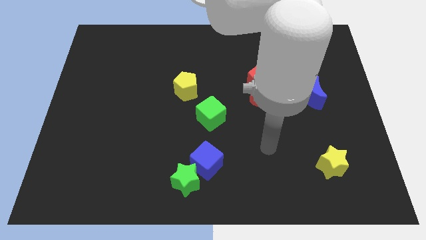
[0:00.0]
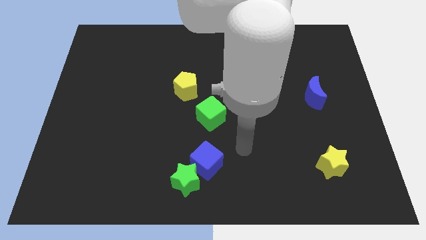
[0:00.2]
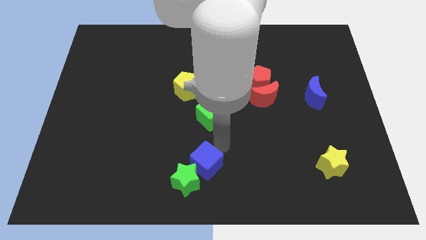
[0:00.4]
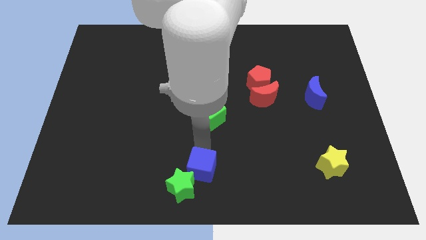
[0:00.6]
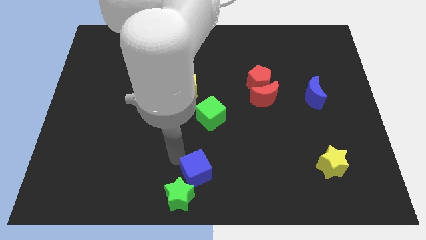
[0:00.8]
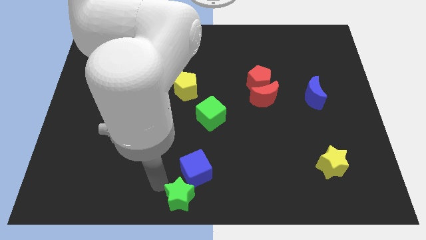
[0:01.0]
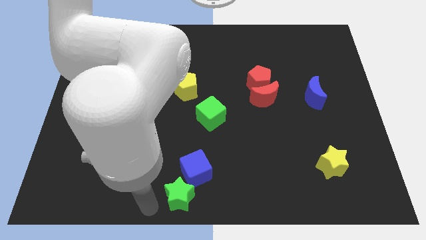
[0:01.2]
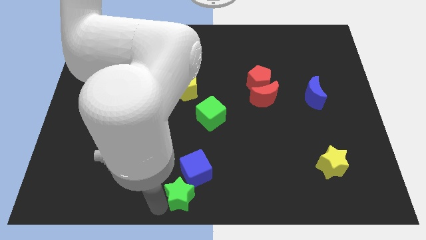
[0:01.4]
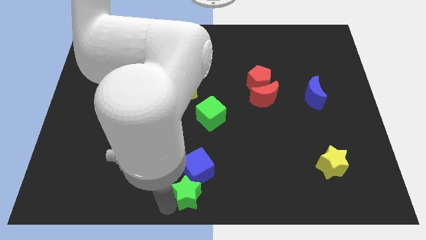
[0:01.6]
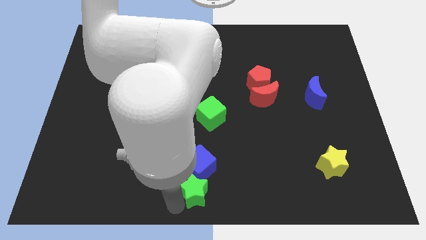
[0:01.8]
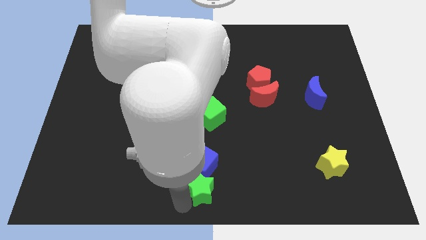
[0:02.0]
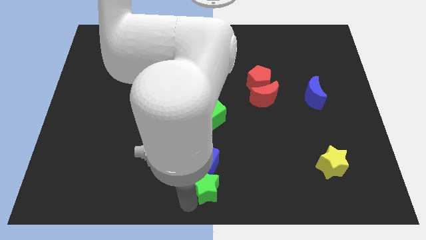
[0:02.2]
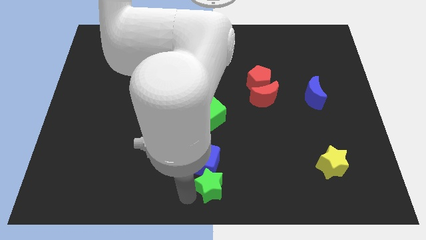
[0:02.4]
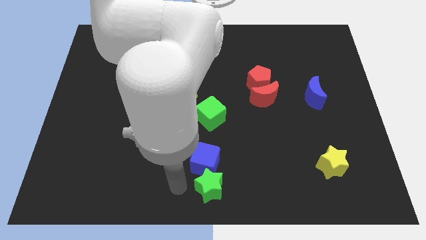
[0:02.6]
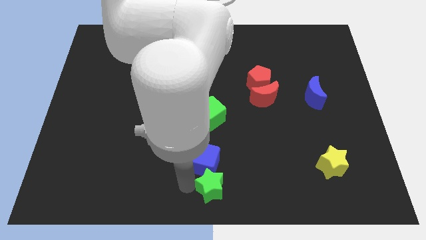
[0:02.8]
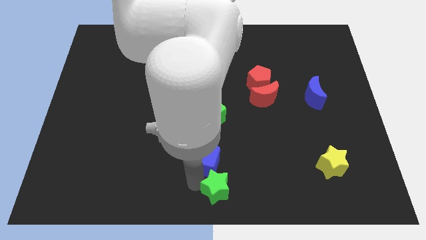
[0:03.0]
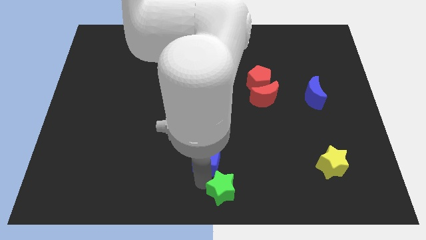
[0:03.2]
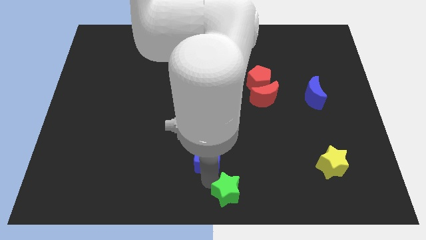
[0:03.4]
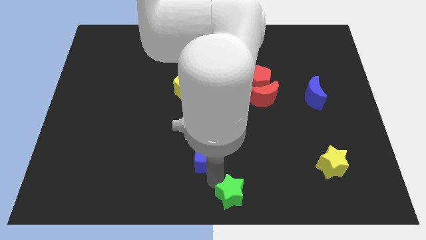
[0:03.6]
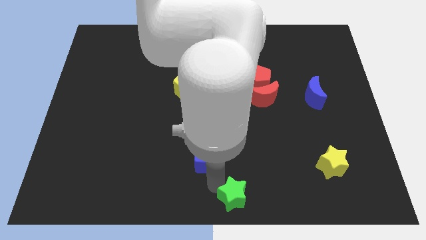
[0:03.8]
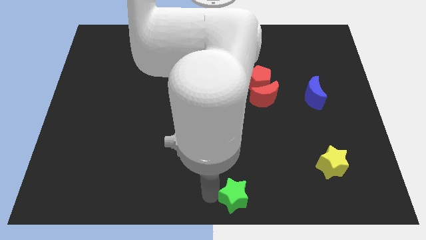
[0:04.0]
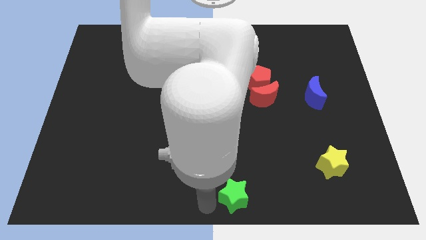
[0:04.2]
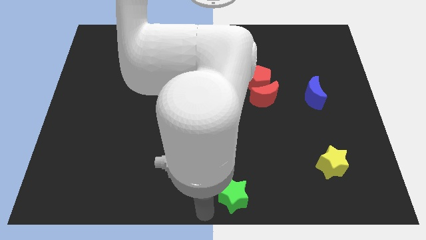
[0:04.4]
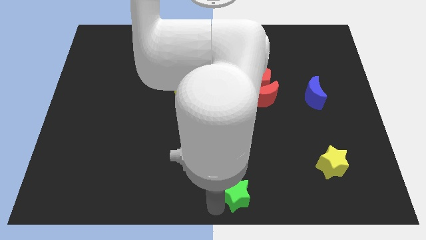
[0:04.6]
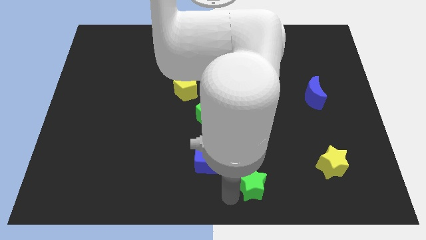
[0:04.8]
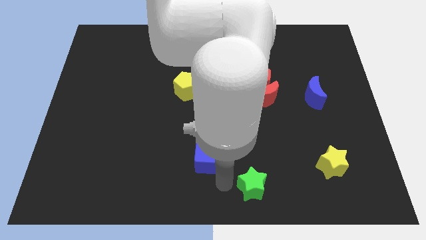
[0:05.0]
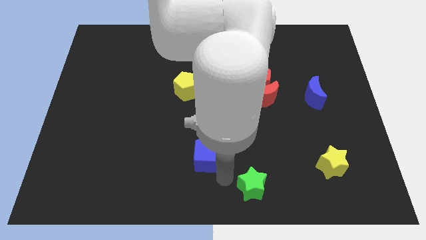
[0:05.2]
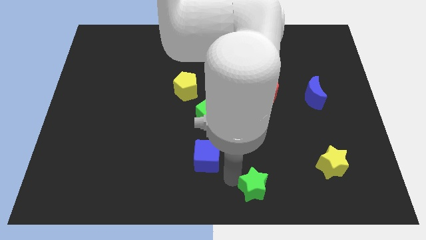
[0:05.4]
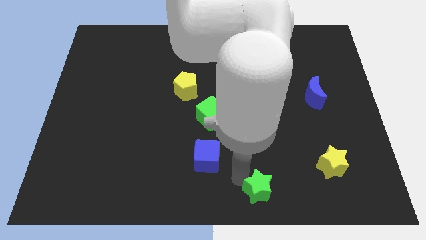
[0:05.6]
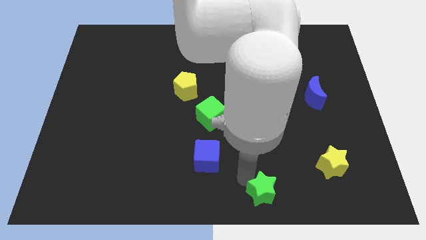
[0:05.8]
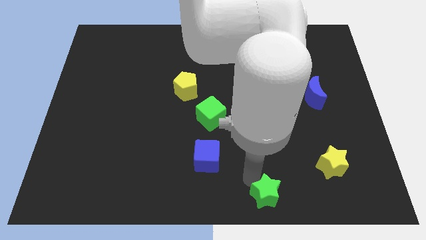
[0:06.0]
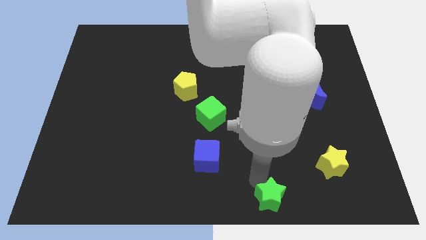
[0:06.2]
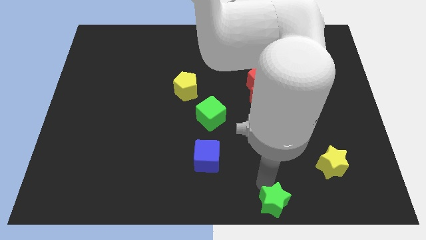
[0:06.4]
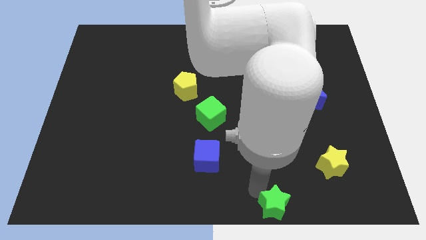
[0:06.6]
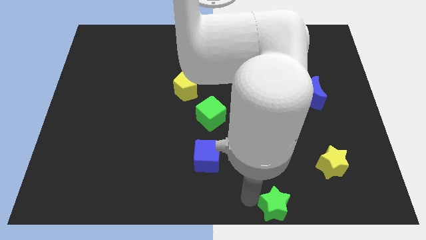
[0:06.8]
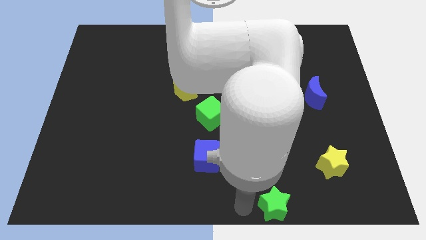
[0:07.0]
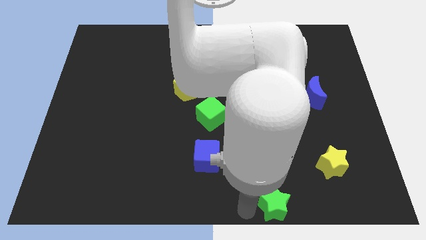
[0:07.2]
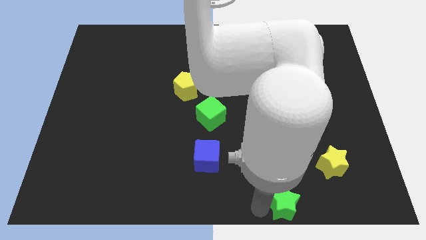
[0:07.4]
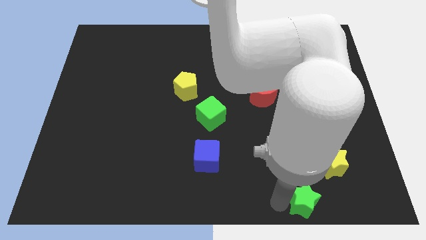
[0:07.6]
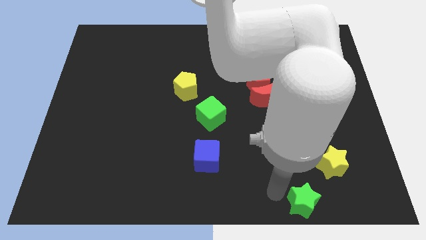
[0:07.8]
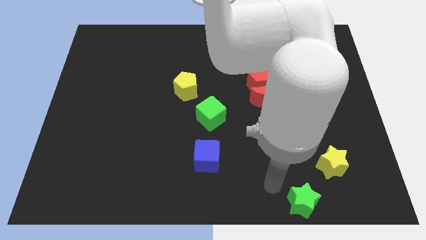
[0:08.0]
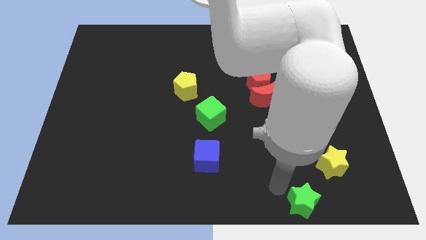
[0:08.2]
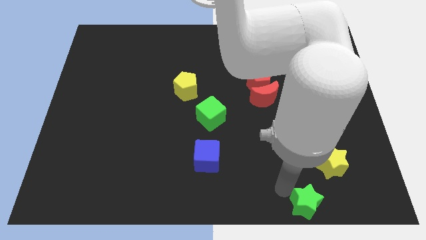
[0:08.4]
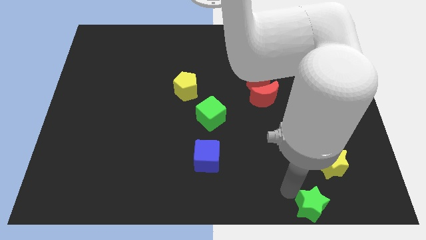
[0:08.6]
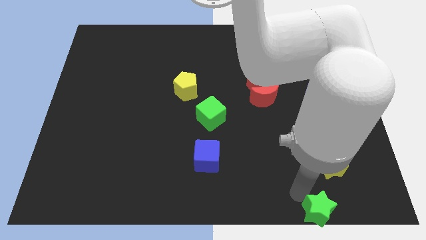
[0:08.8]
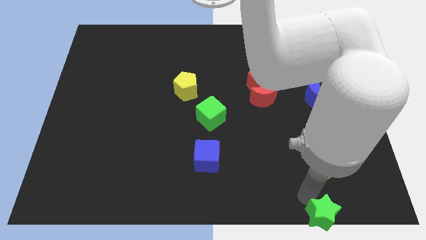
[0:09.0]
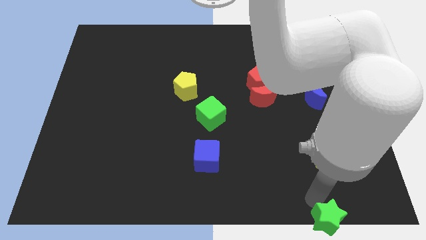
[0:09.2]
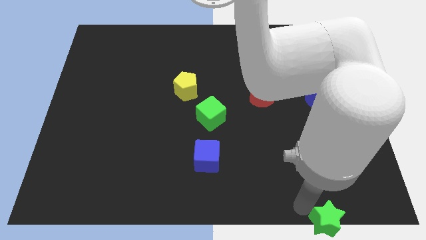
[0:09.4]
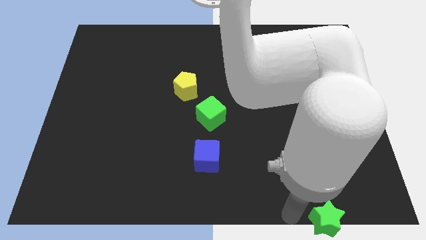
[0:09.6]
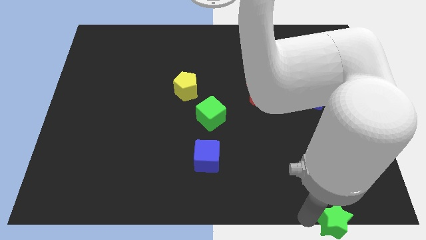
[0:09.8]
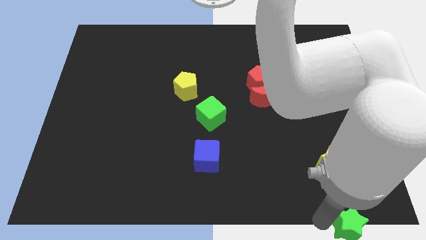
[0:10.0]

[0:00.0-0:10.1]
slide the green star to the lower right corner

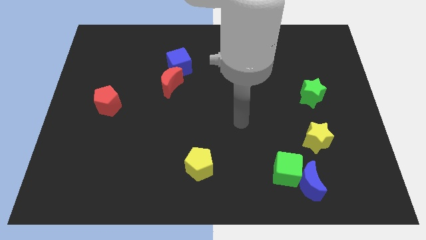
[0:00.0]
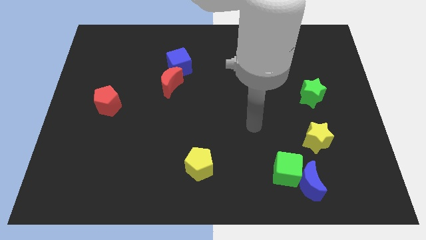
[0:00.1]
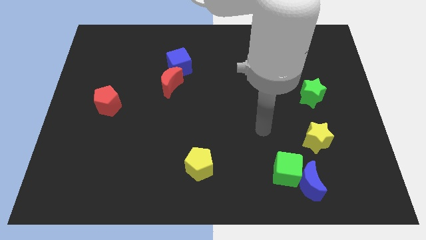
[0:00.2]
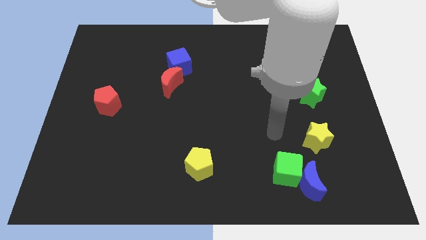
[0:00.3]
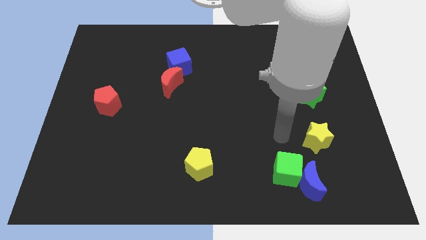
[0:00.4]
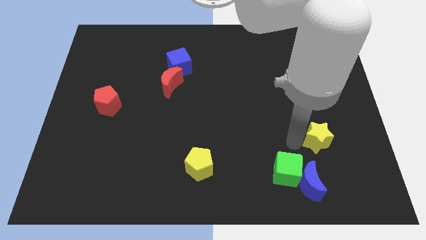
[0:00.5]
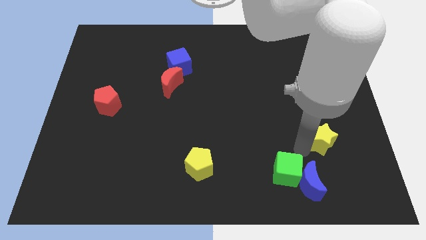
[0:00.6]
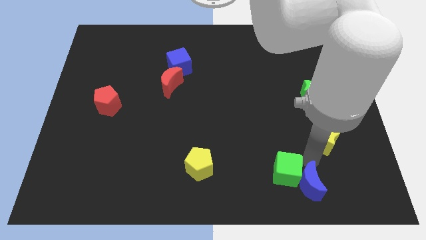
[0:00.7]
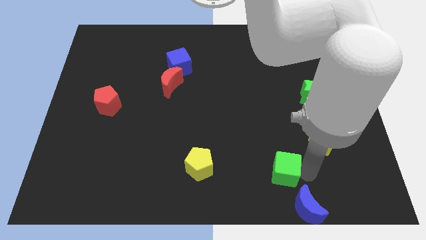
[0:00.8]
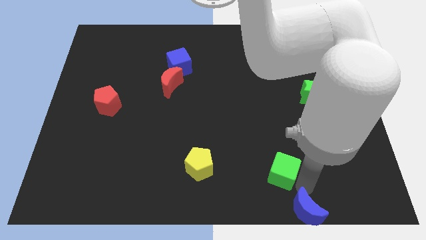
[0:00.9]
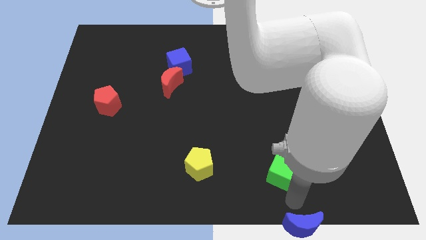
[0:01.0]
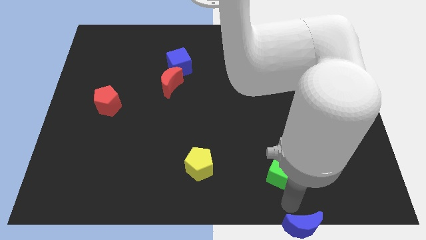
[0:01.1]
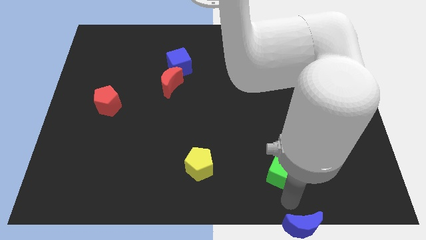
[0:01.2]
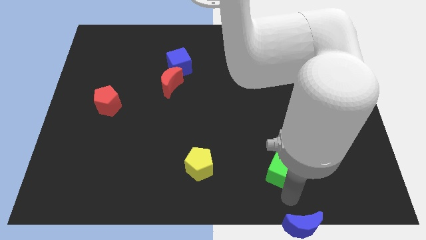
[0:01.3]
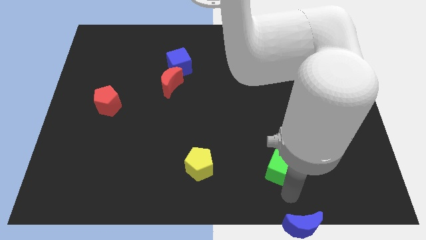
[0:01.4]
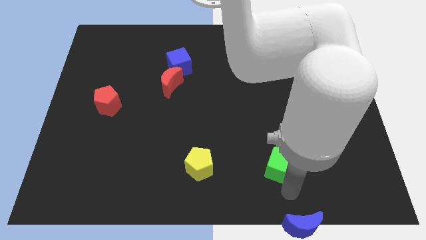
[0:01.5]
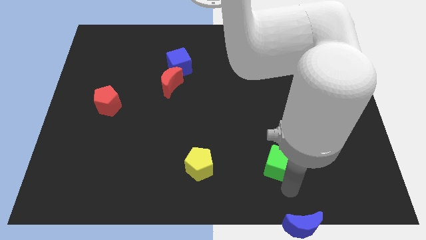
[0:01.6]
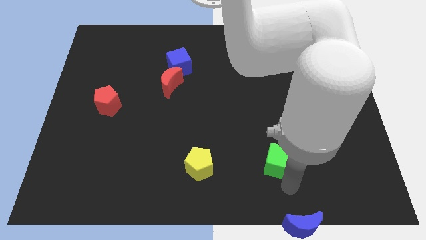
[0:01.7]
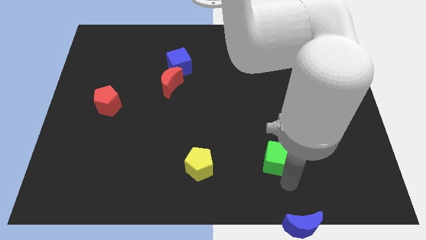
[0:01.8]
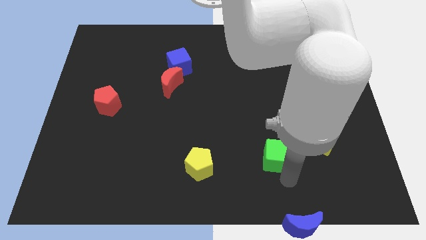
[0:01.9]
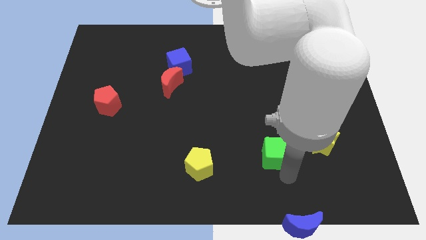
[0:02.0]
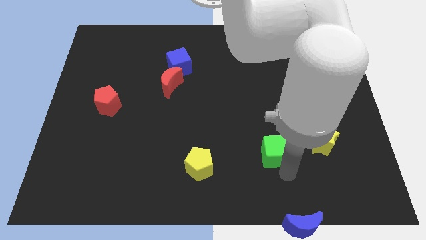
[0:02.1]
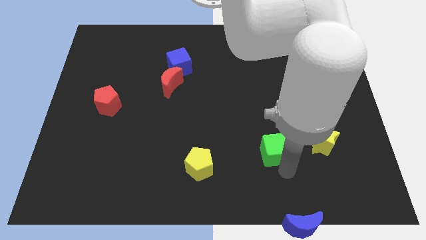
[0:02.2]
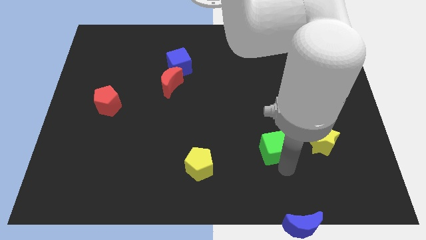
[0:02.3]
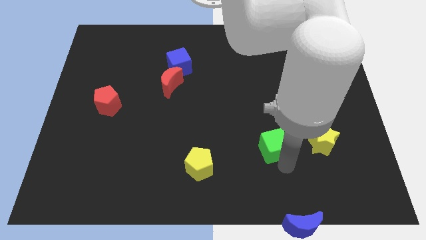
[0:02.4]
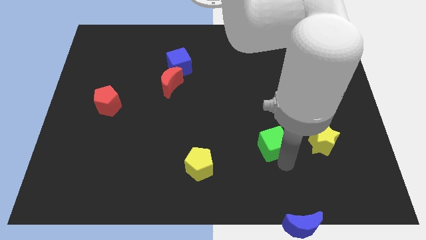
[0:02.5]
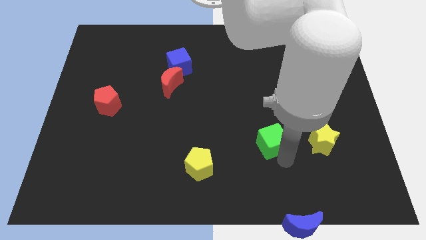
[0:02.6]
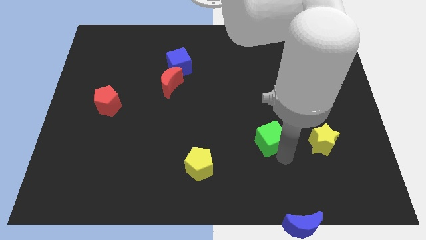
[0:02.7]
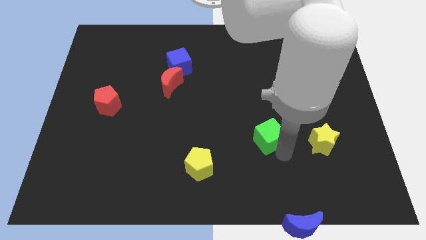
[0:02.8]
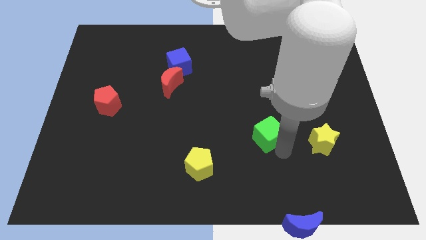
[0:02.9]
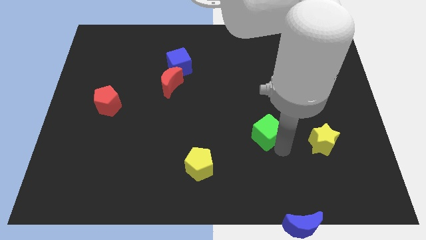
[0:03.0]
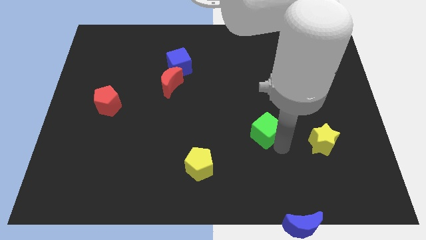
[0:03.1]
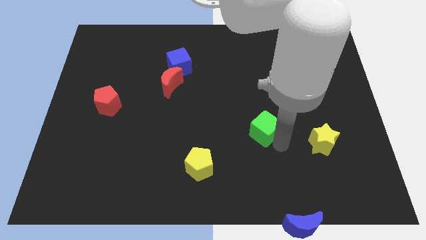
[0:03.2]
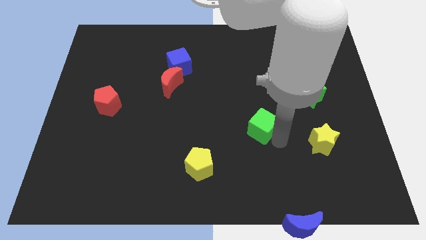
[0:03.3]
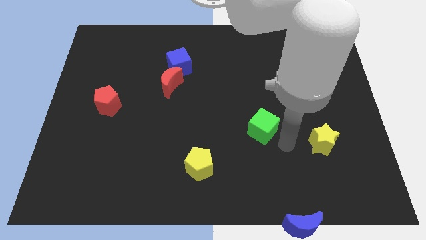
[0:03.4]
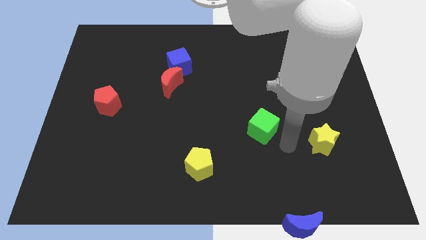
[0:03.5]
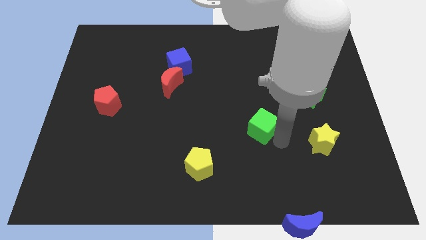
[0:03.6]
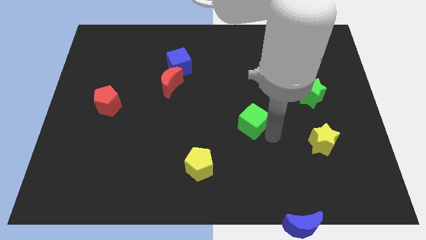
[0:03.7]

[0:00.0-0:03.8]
put the green cube to the center
